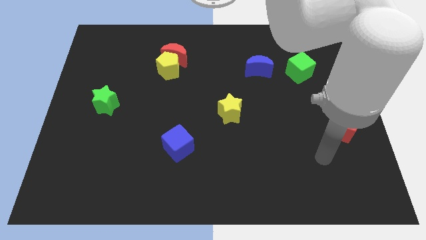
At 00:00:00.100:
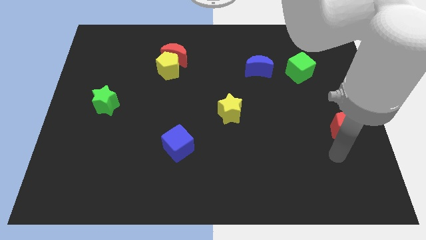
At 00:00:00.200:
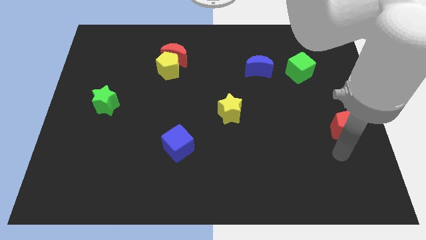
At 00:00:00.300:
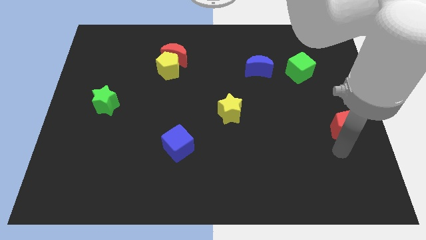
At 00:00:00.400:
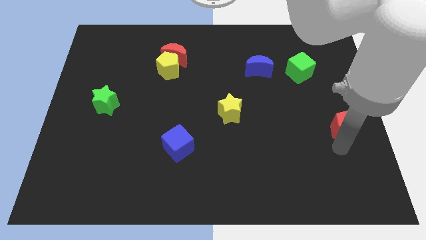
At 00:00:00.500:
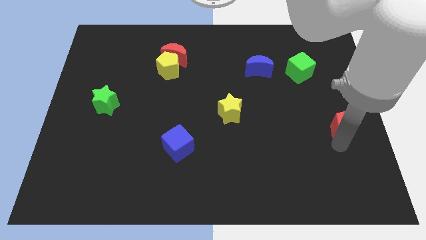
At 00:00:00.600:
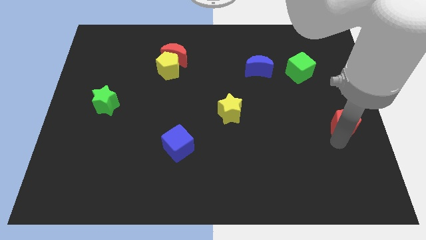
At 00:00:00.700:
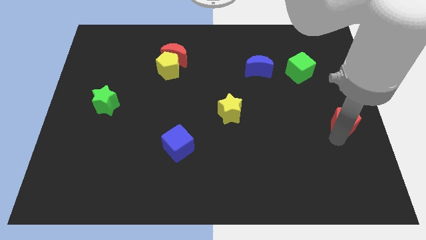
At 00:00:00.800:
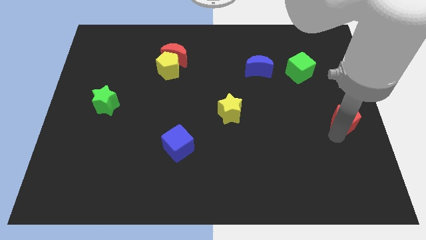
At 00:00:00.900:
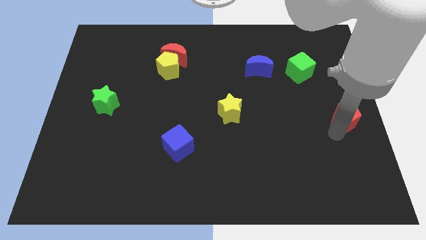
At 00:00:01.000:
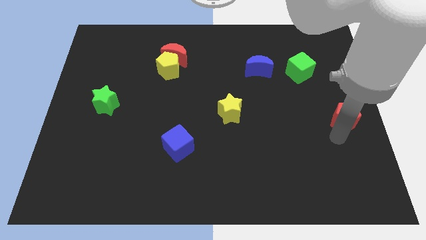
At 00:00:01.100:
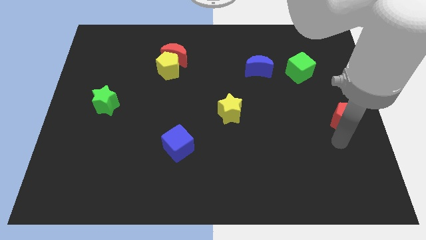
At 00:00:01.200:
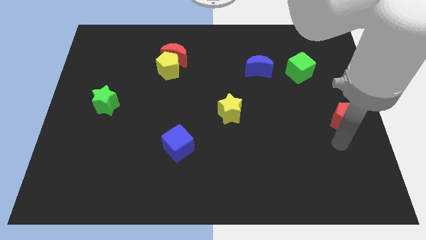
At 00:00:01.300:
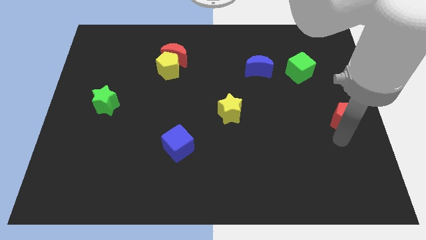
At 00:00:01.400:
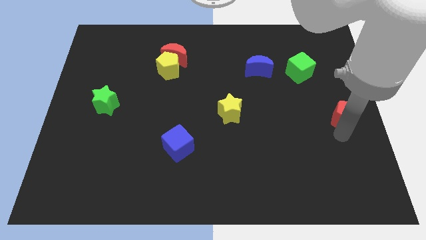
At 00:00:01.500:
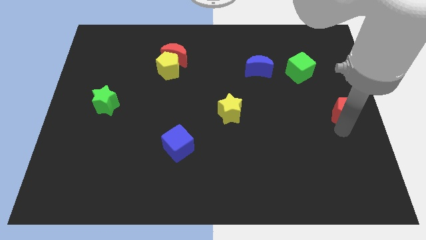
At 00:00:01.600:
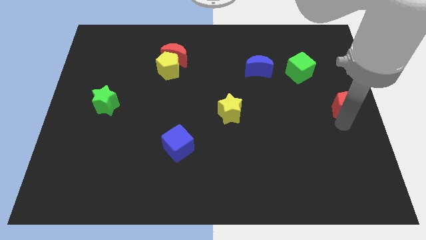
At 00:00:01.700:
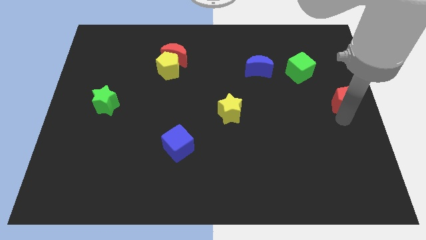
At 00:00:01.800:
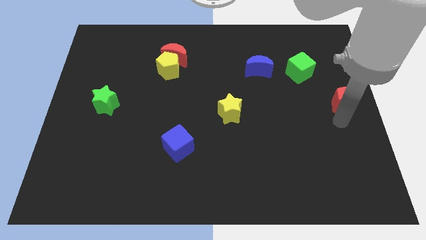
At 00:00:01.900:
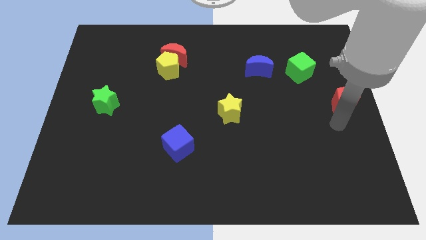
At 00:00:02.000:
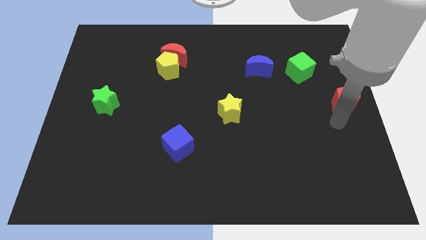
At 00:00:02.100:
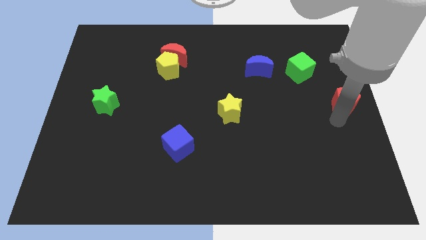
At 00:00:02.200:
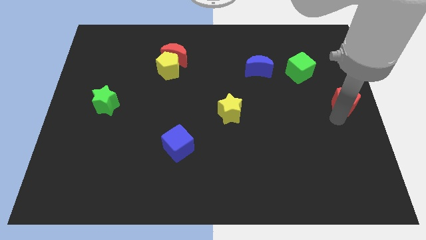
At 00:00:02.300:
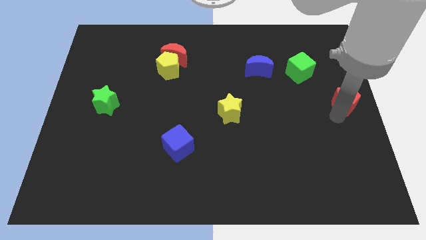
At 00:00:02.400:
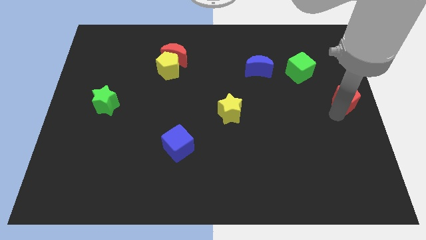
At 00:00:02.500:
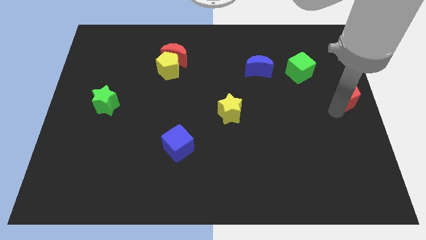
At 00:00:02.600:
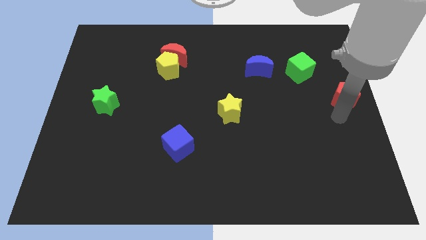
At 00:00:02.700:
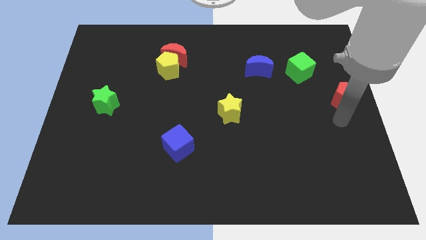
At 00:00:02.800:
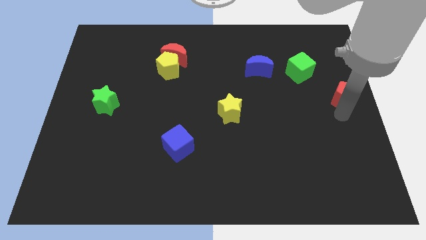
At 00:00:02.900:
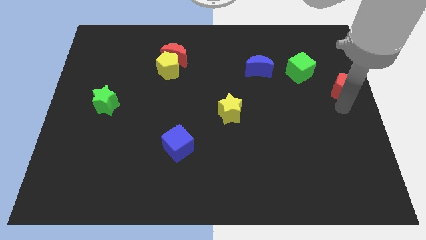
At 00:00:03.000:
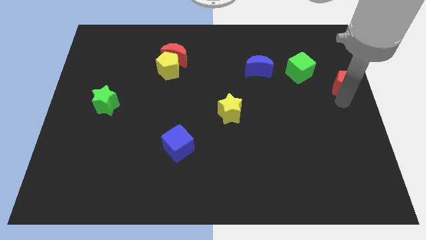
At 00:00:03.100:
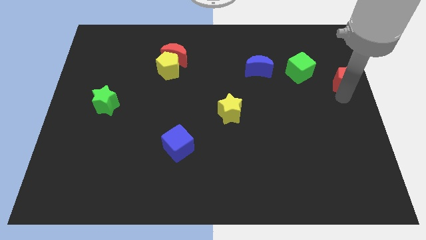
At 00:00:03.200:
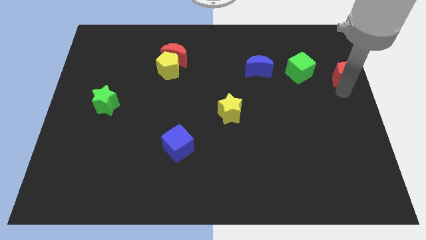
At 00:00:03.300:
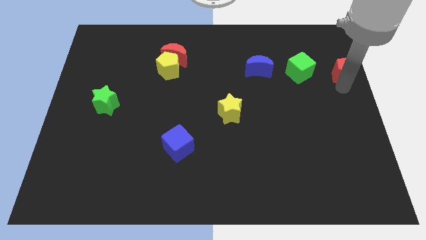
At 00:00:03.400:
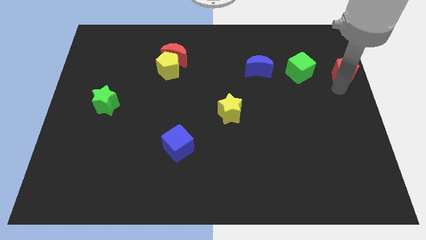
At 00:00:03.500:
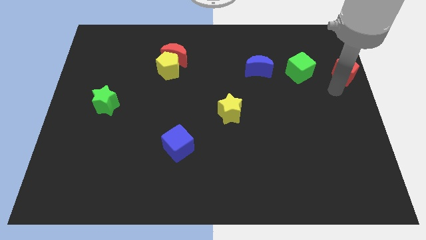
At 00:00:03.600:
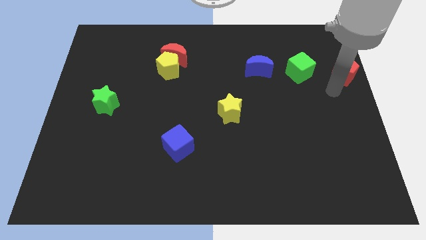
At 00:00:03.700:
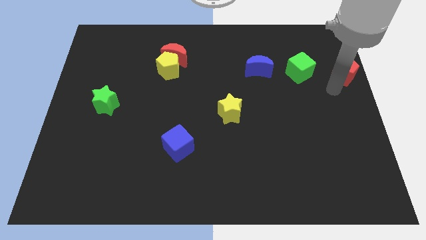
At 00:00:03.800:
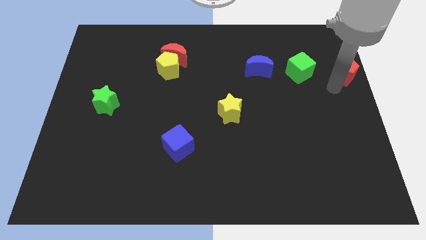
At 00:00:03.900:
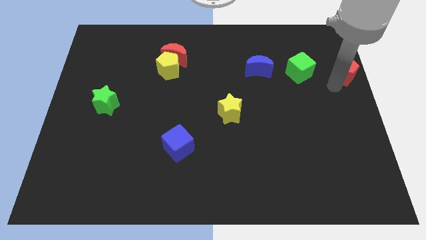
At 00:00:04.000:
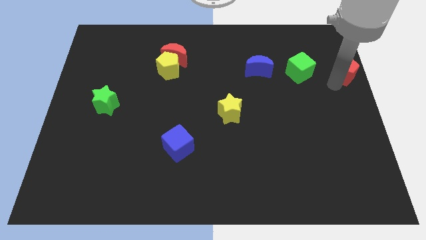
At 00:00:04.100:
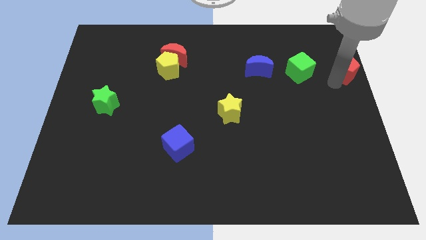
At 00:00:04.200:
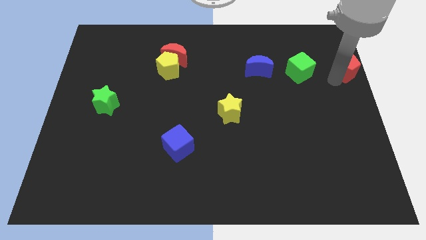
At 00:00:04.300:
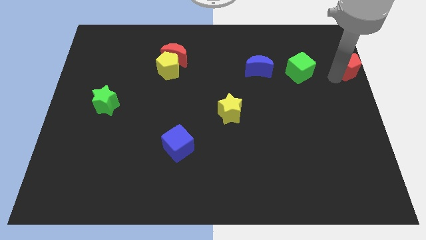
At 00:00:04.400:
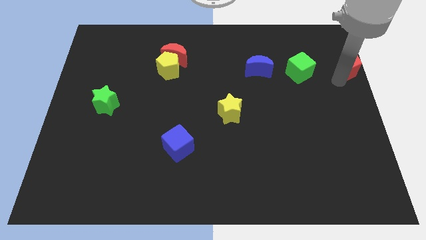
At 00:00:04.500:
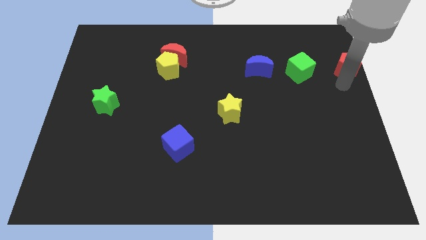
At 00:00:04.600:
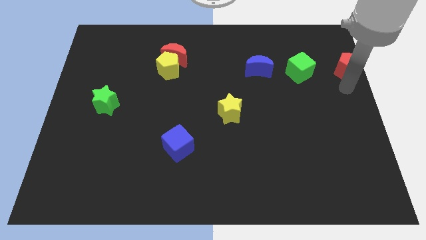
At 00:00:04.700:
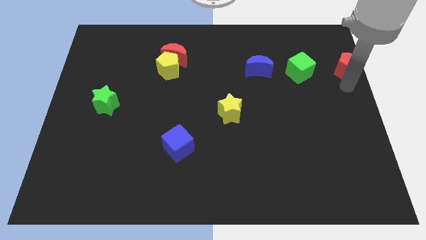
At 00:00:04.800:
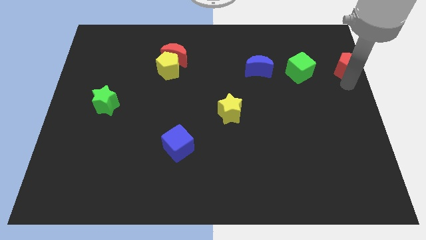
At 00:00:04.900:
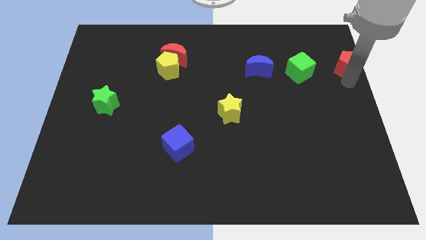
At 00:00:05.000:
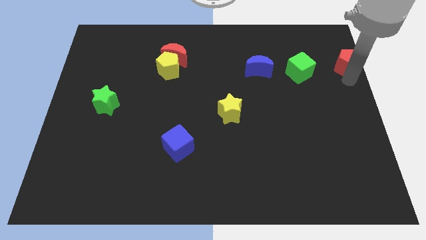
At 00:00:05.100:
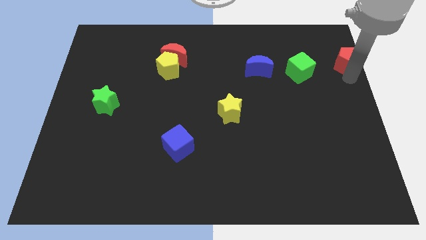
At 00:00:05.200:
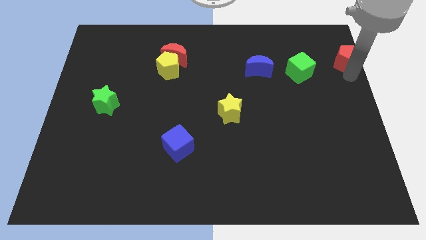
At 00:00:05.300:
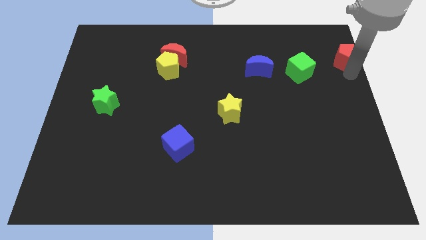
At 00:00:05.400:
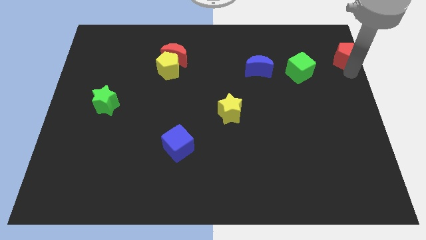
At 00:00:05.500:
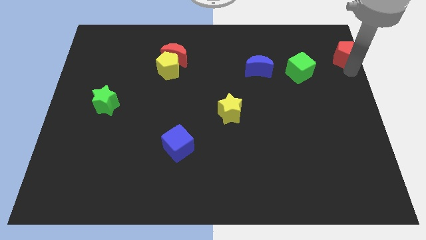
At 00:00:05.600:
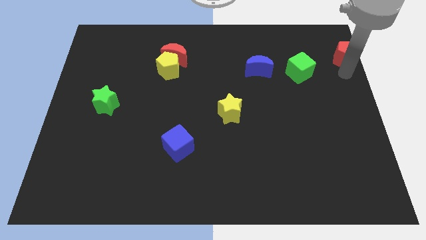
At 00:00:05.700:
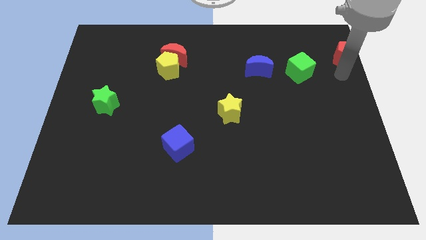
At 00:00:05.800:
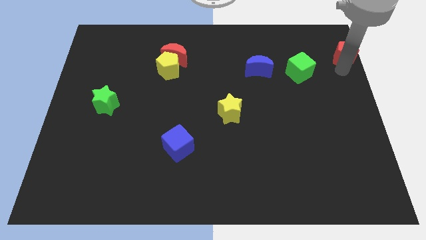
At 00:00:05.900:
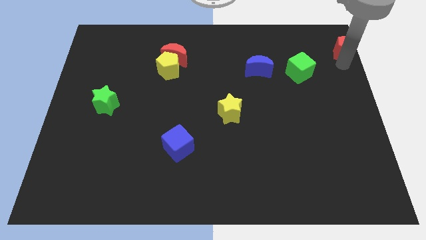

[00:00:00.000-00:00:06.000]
push the red pentagon to the top right corner

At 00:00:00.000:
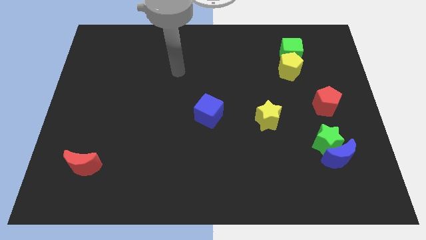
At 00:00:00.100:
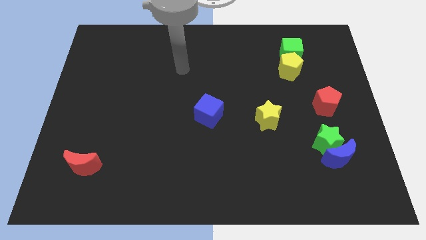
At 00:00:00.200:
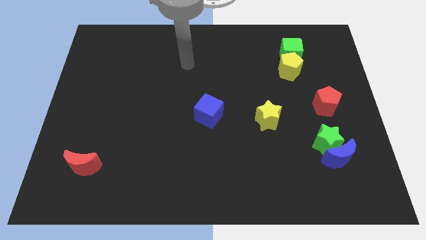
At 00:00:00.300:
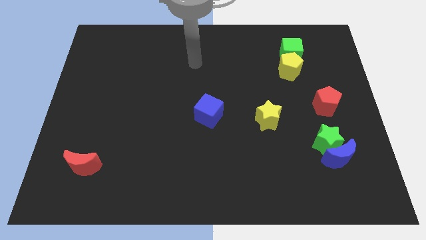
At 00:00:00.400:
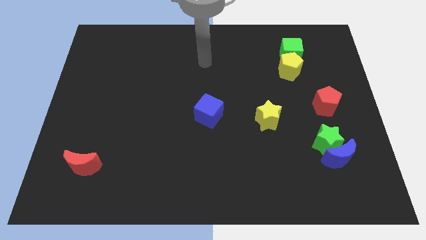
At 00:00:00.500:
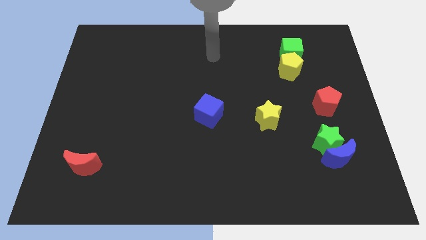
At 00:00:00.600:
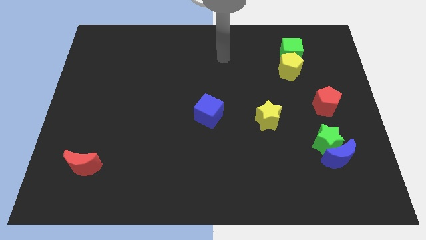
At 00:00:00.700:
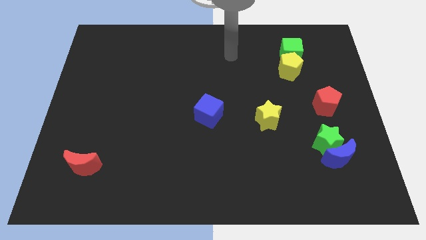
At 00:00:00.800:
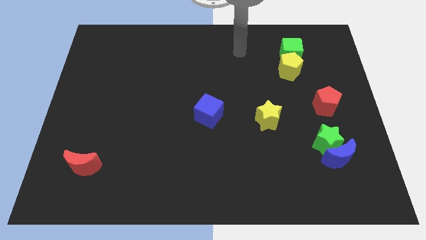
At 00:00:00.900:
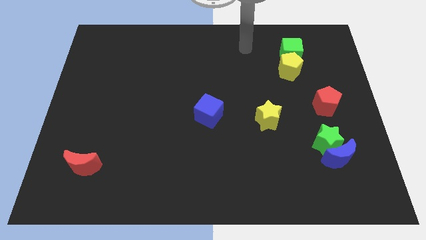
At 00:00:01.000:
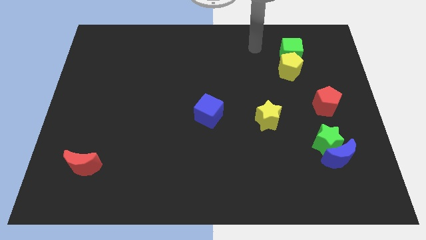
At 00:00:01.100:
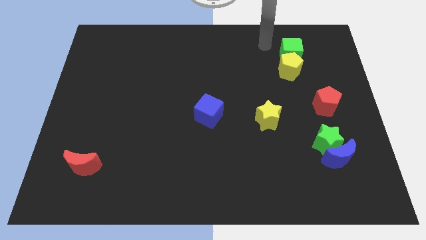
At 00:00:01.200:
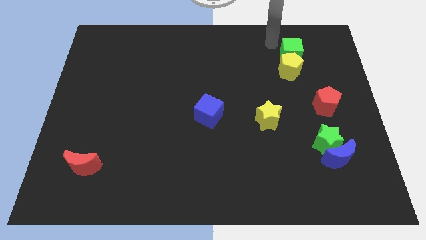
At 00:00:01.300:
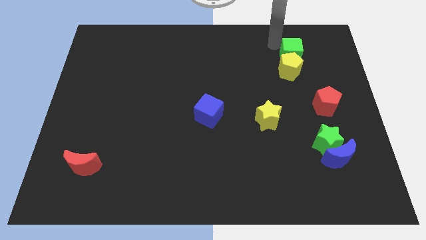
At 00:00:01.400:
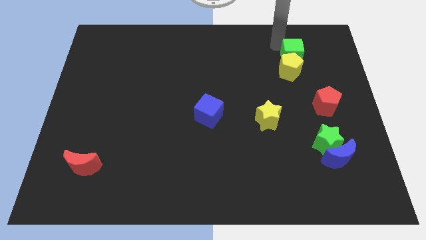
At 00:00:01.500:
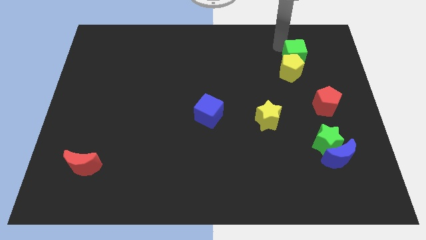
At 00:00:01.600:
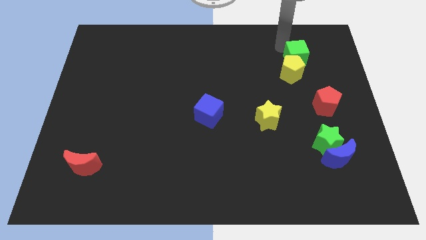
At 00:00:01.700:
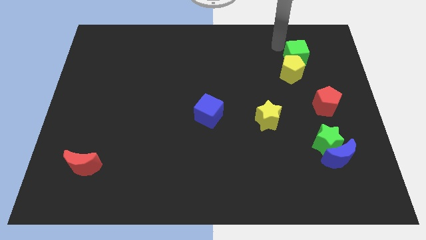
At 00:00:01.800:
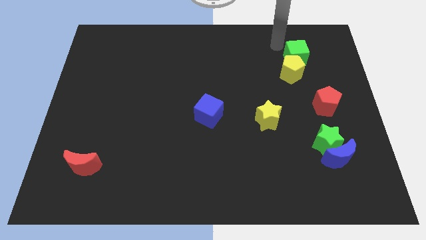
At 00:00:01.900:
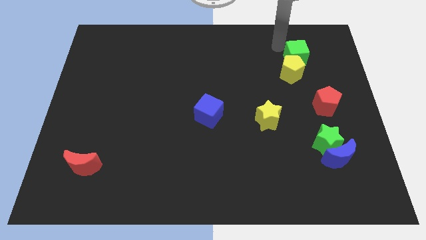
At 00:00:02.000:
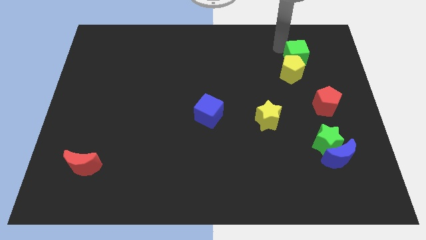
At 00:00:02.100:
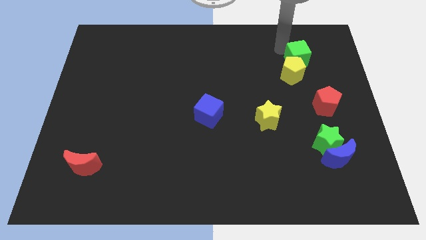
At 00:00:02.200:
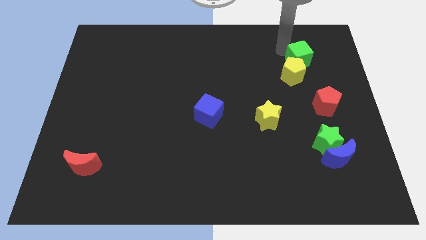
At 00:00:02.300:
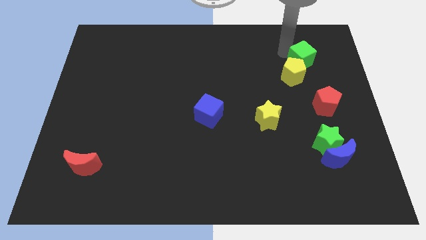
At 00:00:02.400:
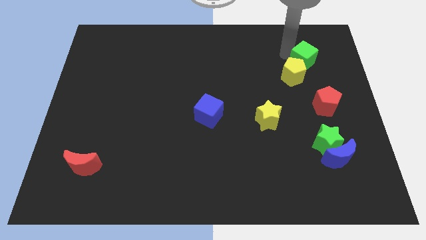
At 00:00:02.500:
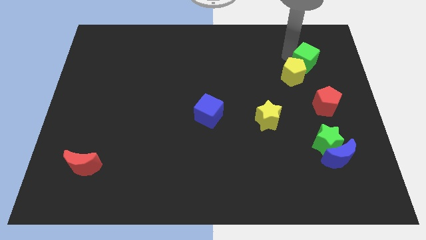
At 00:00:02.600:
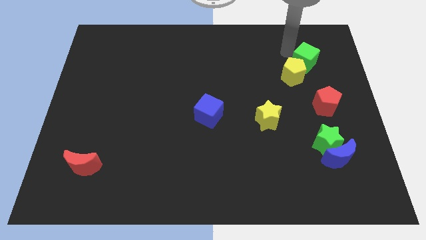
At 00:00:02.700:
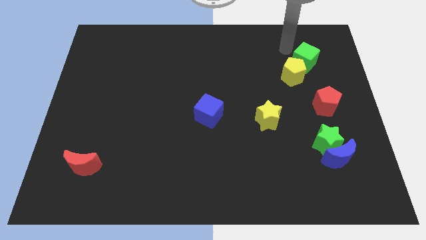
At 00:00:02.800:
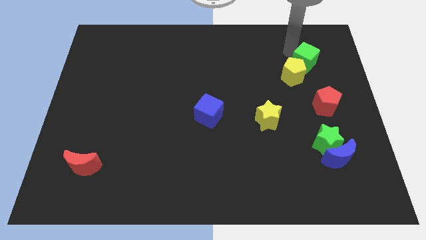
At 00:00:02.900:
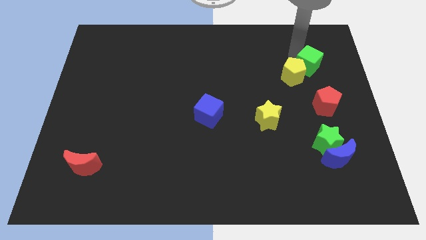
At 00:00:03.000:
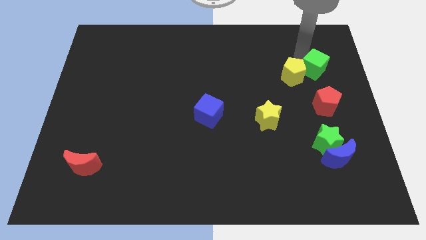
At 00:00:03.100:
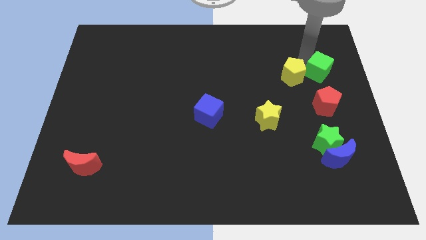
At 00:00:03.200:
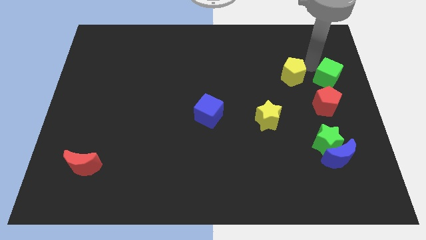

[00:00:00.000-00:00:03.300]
push the green cube to the right side
